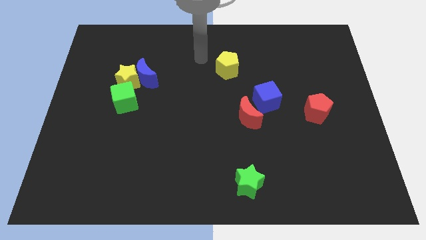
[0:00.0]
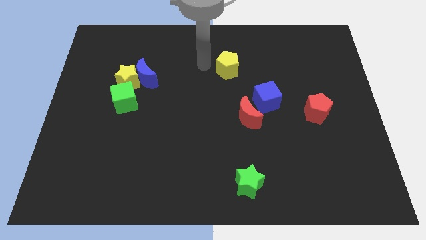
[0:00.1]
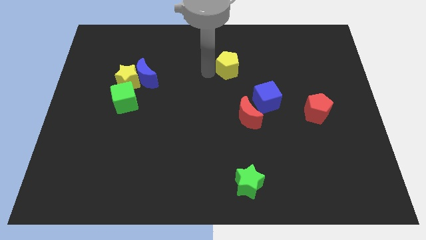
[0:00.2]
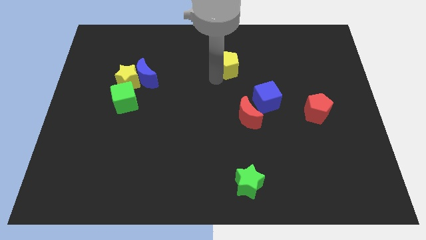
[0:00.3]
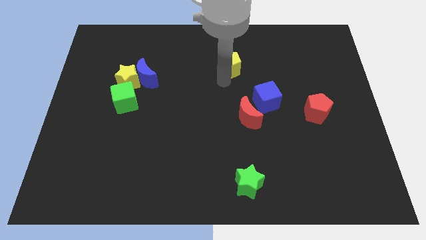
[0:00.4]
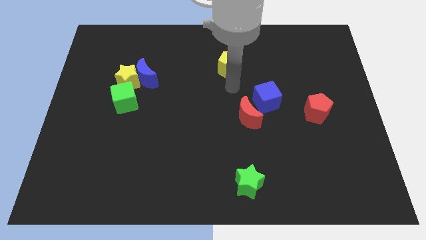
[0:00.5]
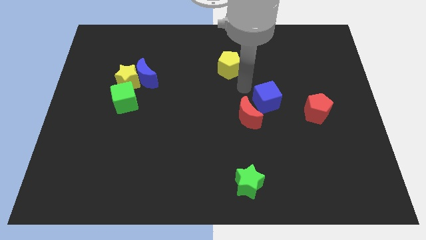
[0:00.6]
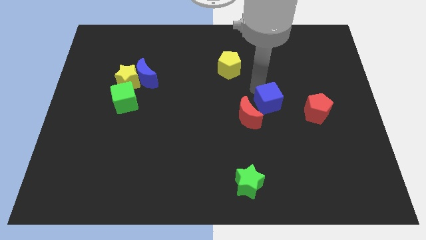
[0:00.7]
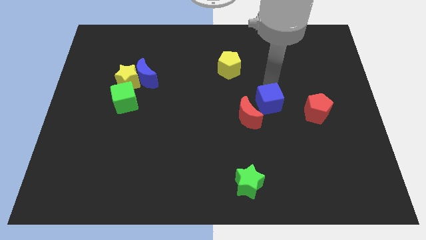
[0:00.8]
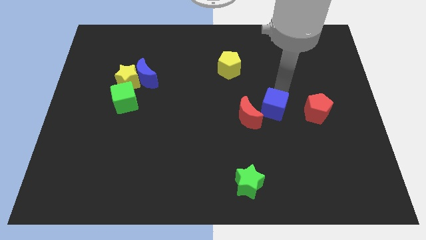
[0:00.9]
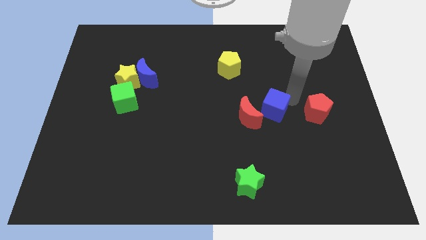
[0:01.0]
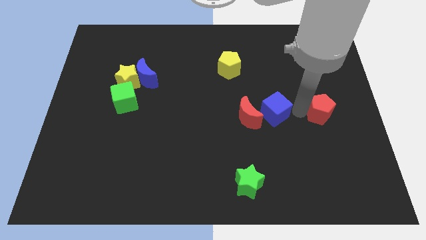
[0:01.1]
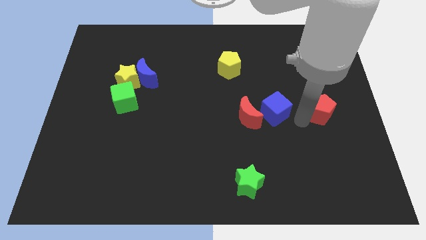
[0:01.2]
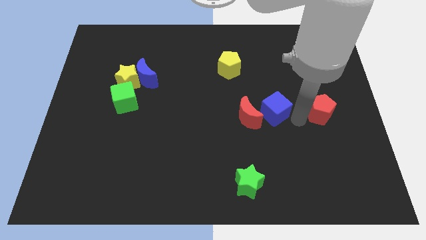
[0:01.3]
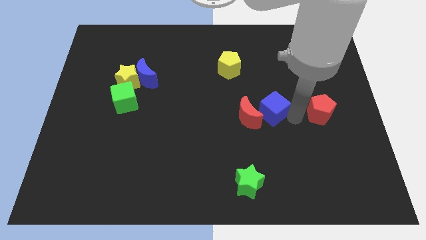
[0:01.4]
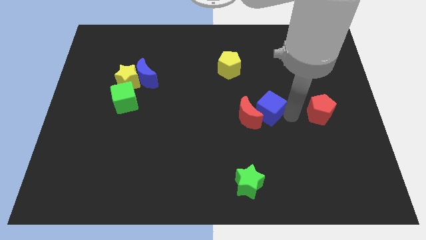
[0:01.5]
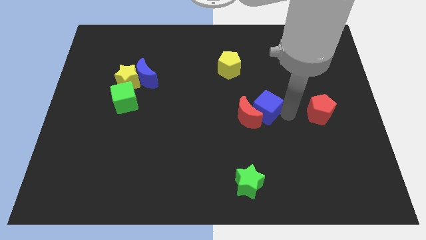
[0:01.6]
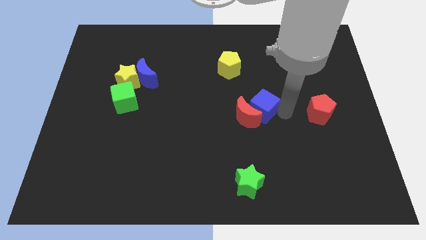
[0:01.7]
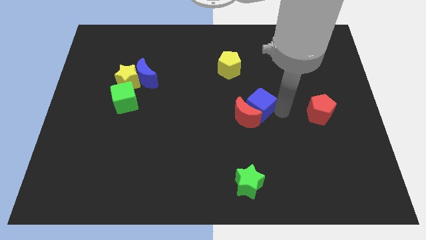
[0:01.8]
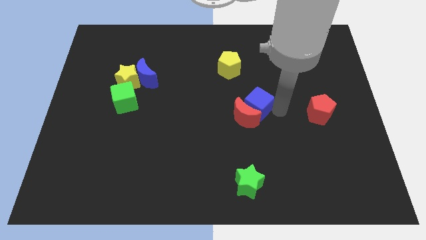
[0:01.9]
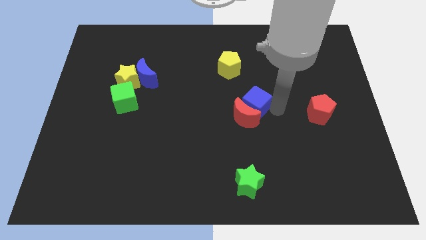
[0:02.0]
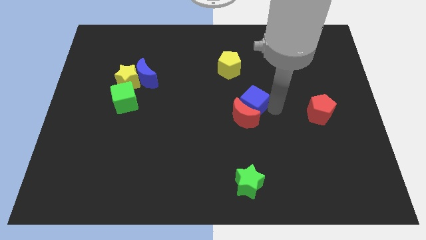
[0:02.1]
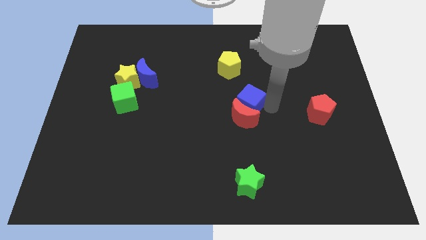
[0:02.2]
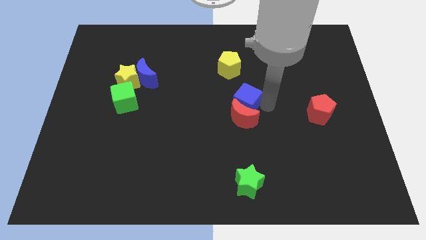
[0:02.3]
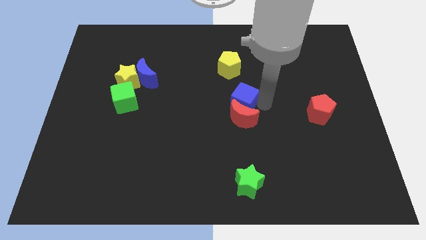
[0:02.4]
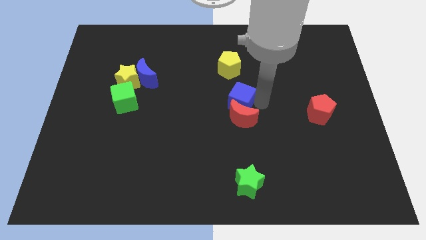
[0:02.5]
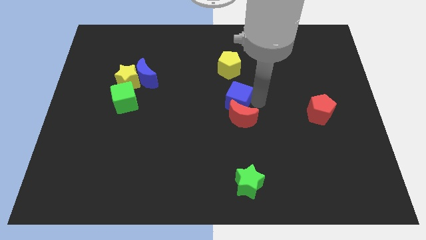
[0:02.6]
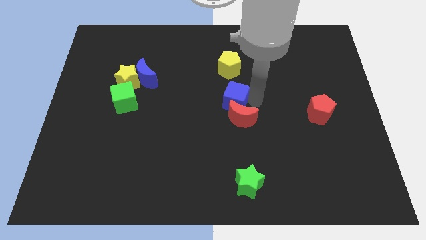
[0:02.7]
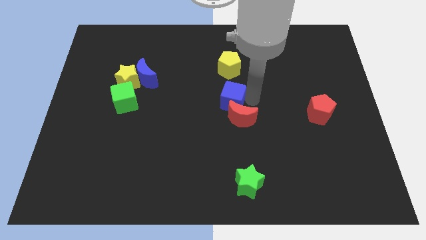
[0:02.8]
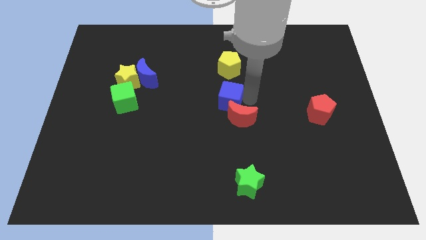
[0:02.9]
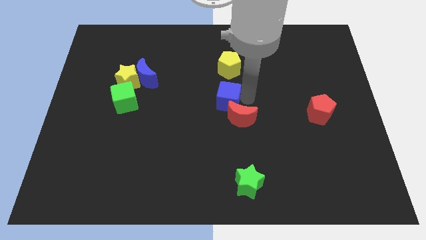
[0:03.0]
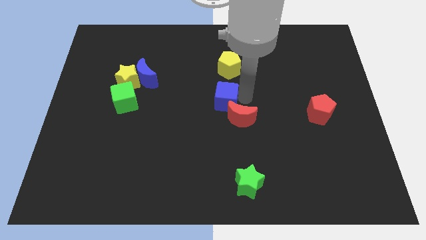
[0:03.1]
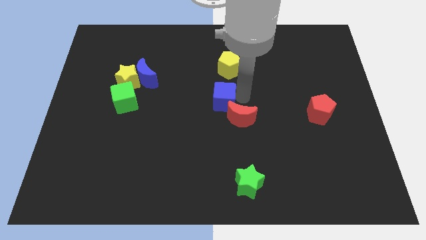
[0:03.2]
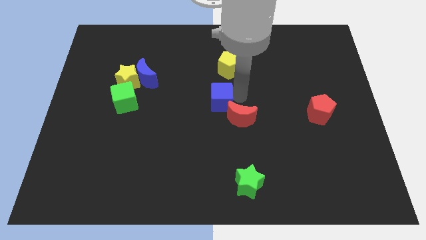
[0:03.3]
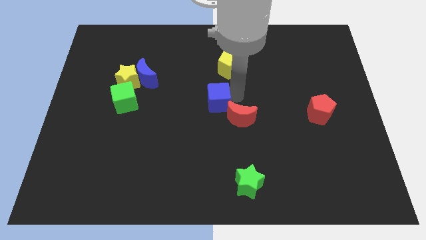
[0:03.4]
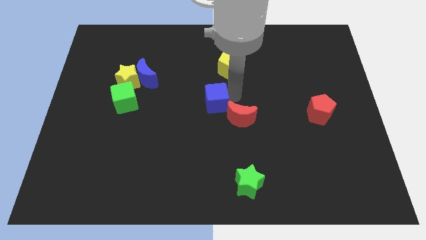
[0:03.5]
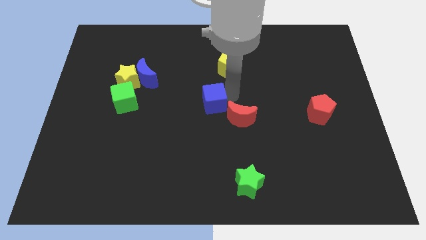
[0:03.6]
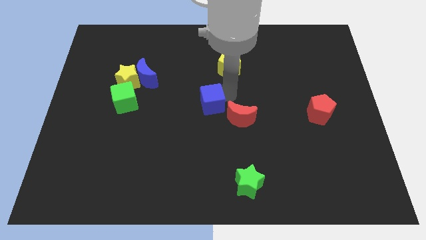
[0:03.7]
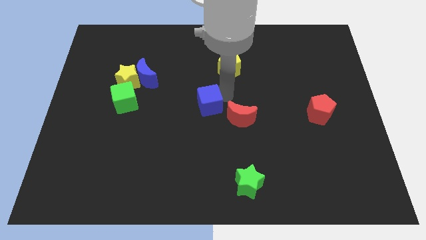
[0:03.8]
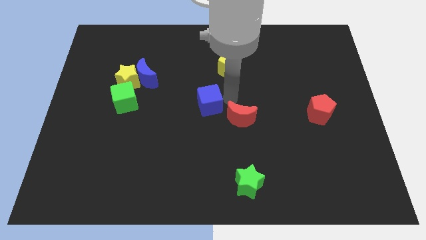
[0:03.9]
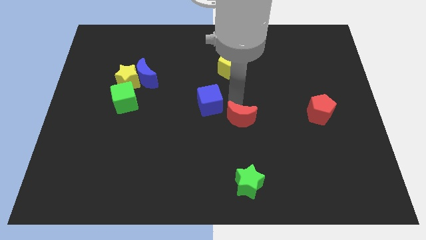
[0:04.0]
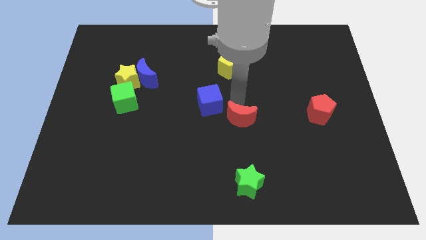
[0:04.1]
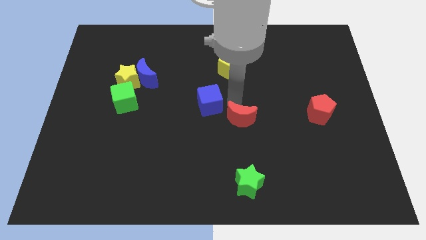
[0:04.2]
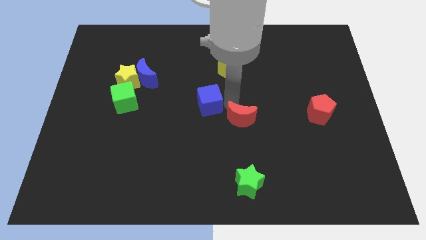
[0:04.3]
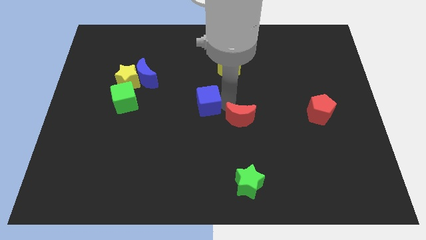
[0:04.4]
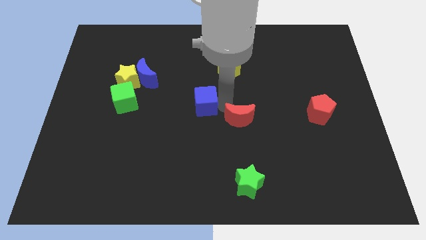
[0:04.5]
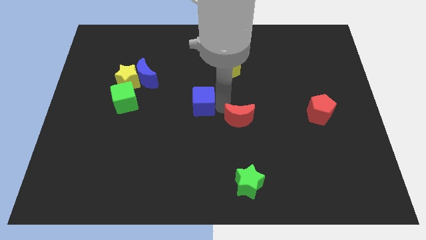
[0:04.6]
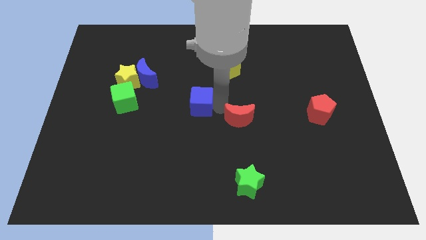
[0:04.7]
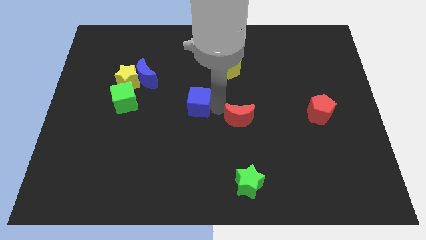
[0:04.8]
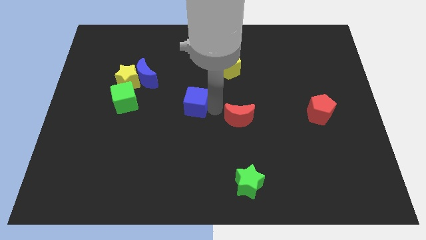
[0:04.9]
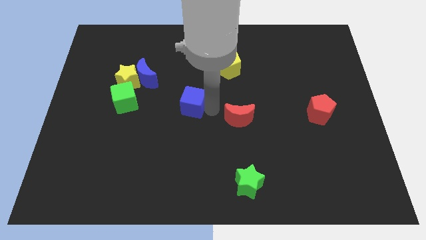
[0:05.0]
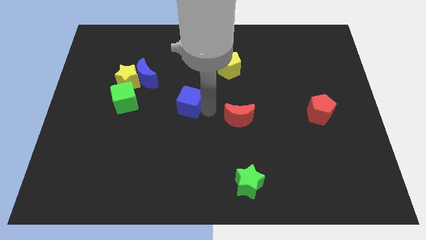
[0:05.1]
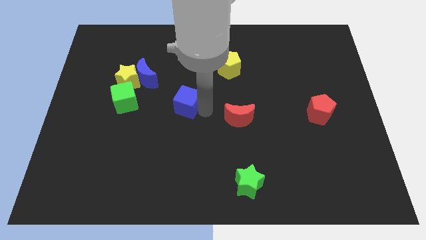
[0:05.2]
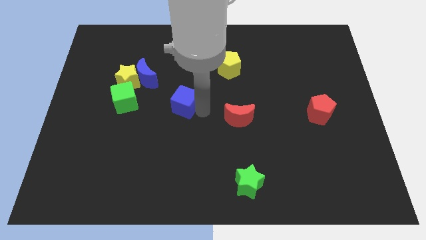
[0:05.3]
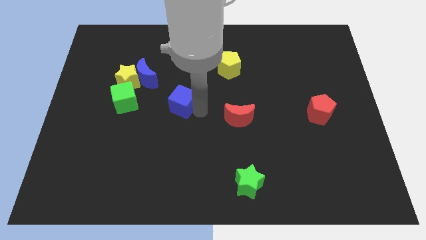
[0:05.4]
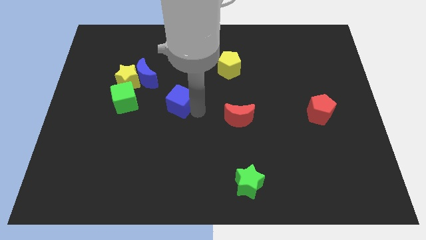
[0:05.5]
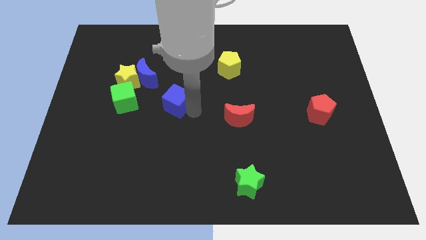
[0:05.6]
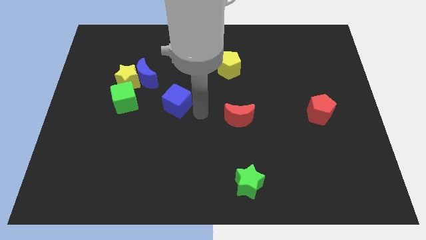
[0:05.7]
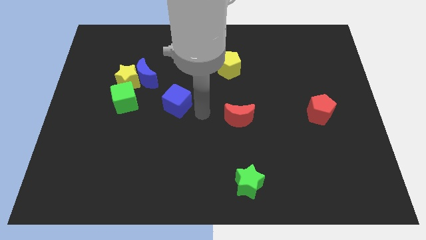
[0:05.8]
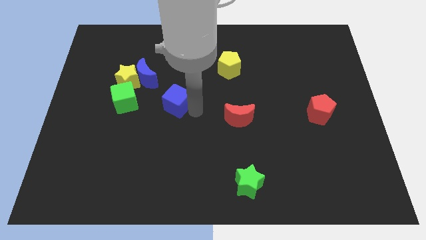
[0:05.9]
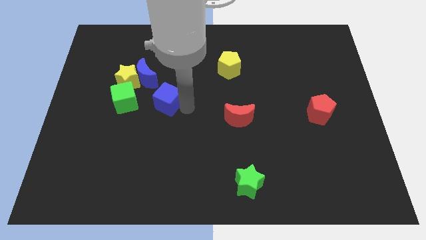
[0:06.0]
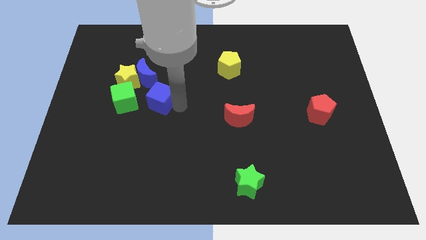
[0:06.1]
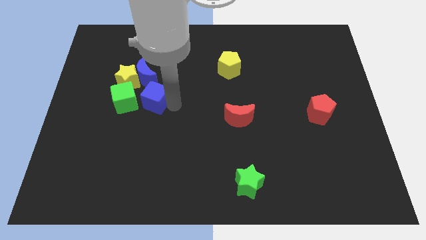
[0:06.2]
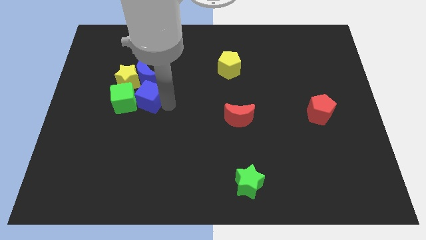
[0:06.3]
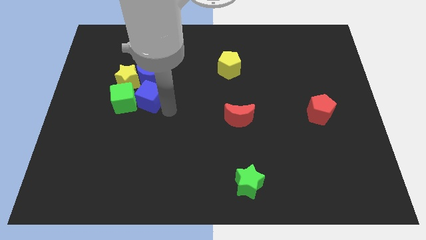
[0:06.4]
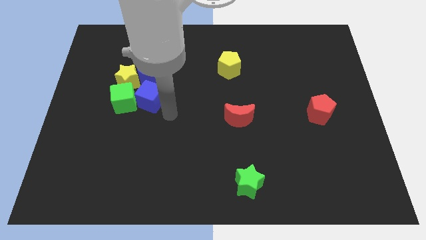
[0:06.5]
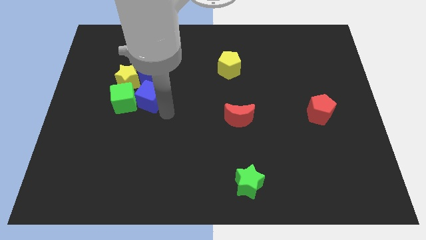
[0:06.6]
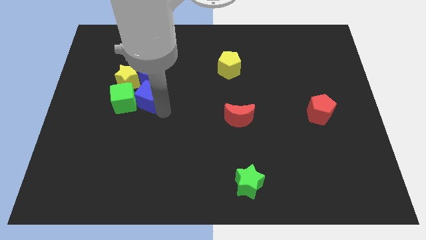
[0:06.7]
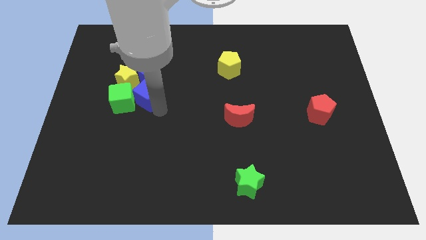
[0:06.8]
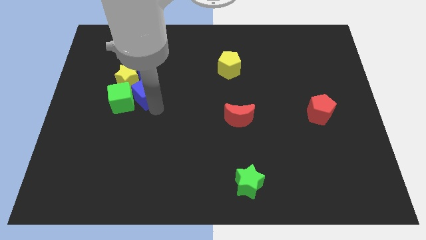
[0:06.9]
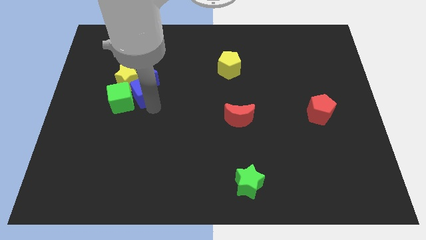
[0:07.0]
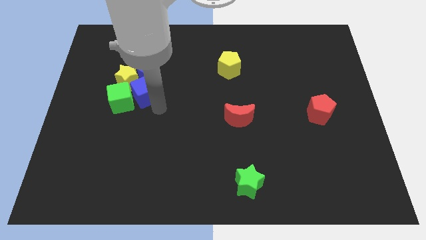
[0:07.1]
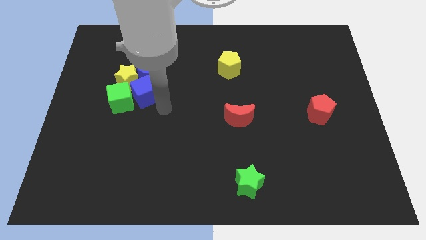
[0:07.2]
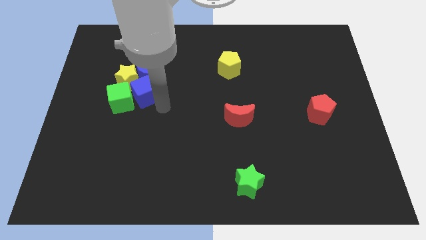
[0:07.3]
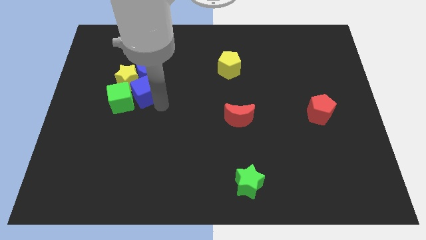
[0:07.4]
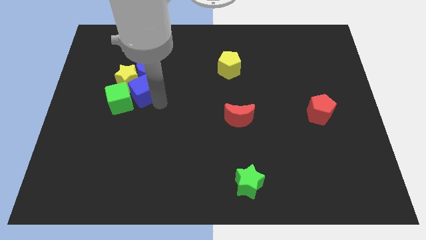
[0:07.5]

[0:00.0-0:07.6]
push the blue cube towards the yellow star
